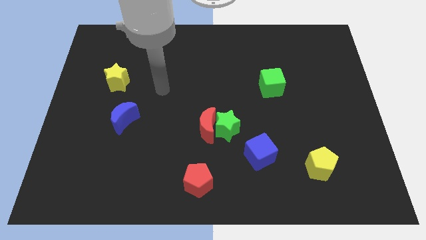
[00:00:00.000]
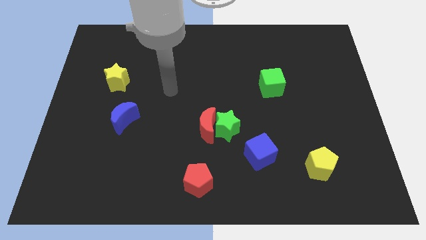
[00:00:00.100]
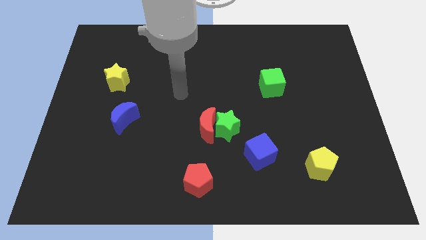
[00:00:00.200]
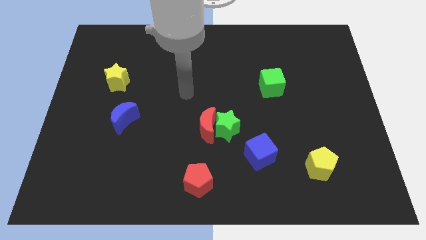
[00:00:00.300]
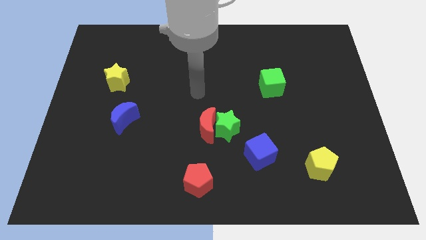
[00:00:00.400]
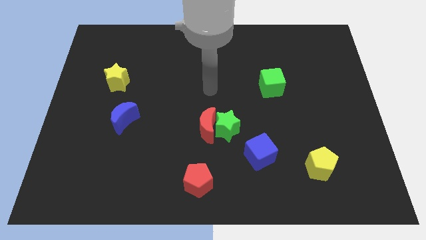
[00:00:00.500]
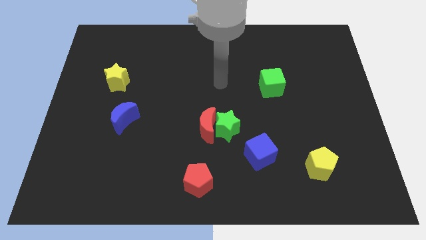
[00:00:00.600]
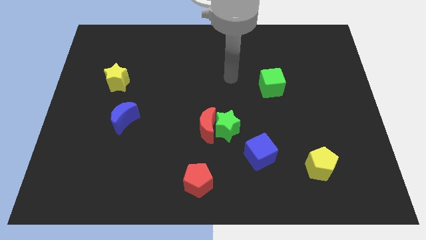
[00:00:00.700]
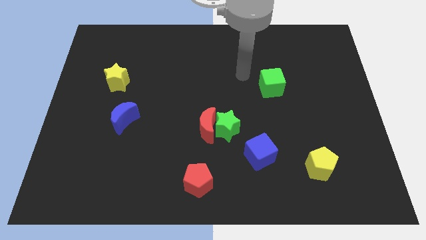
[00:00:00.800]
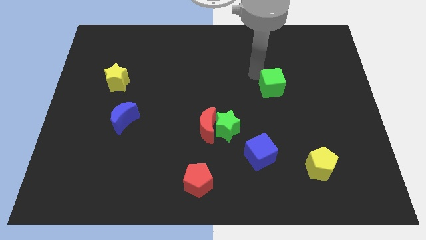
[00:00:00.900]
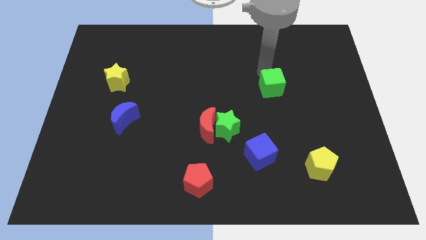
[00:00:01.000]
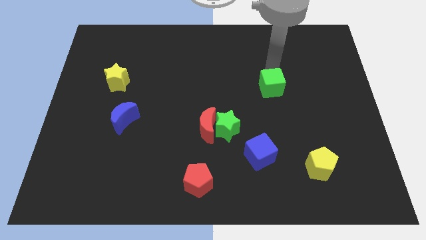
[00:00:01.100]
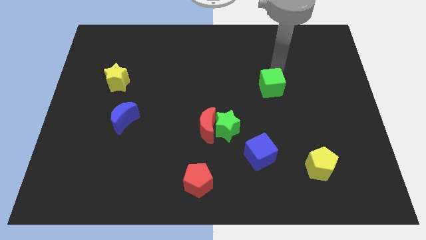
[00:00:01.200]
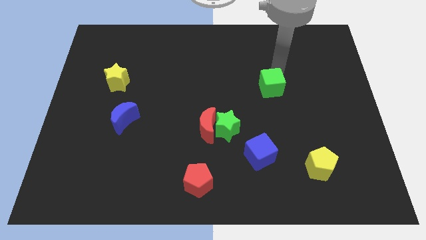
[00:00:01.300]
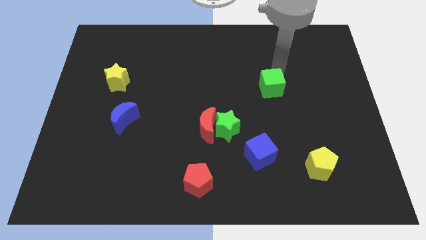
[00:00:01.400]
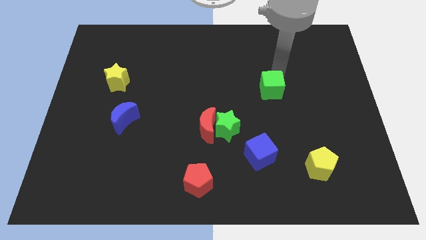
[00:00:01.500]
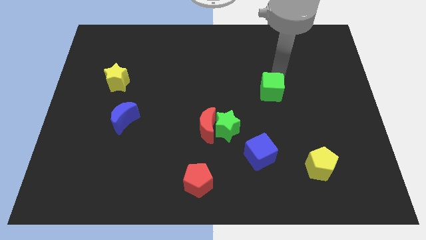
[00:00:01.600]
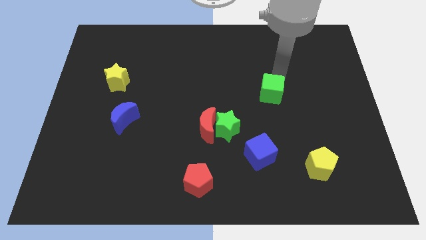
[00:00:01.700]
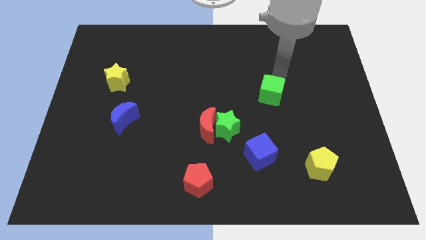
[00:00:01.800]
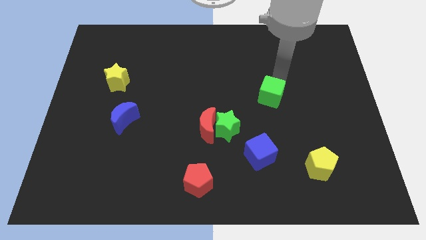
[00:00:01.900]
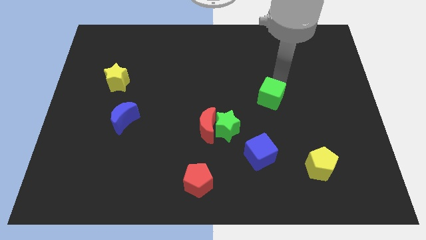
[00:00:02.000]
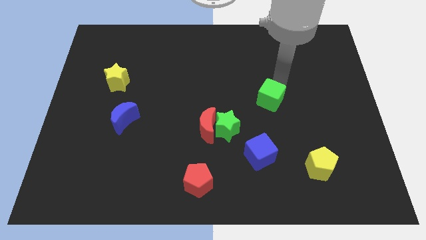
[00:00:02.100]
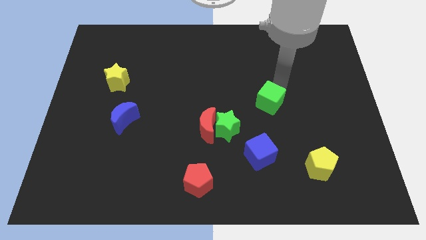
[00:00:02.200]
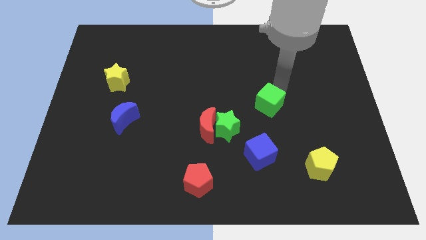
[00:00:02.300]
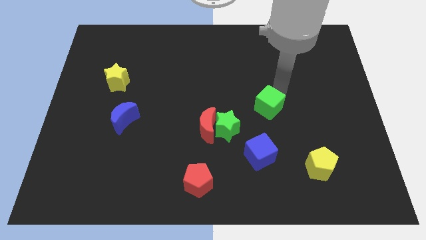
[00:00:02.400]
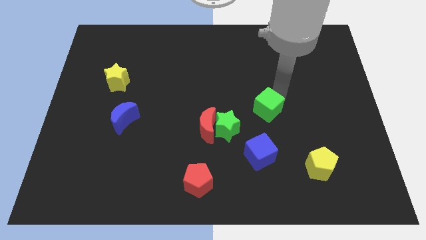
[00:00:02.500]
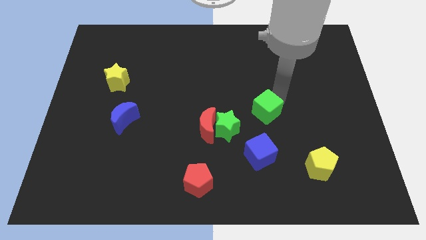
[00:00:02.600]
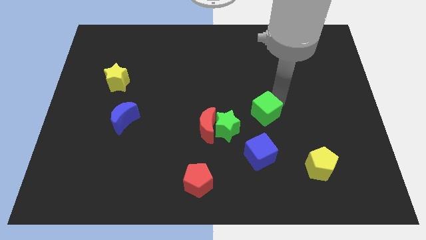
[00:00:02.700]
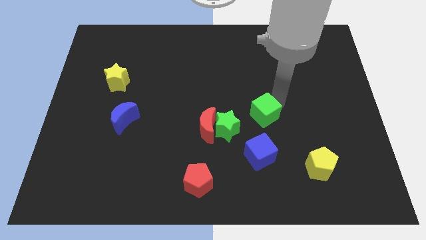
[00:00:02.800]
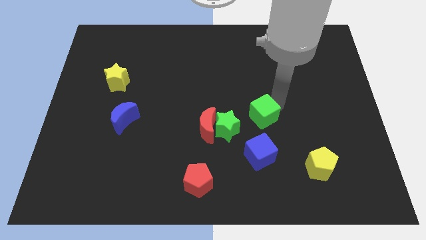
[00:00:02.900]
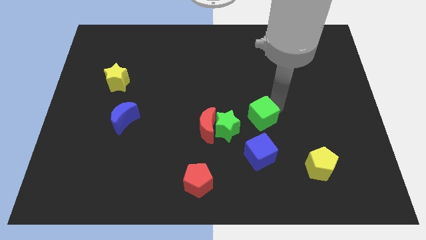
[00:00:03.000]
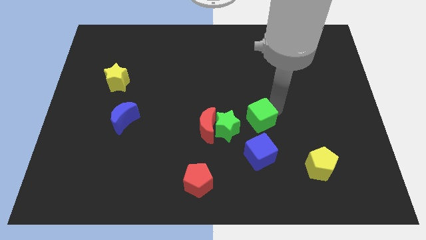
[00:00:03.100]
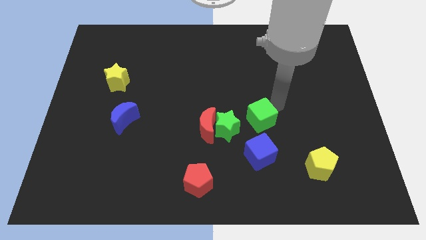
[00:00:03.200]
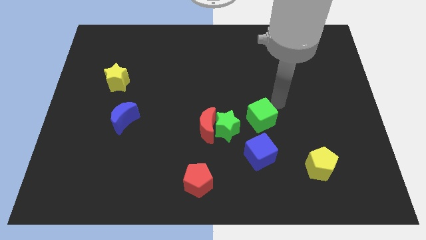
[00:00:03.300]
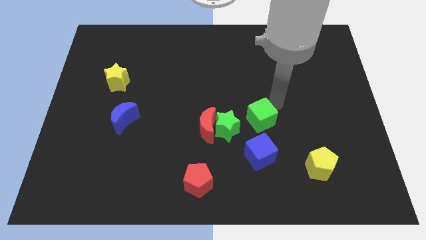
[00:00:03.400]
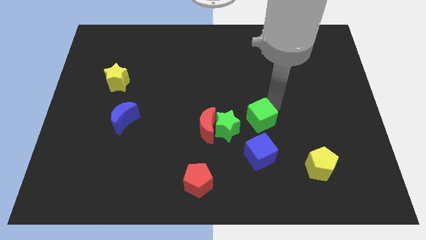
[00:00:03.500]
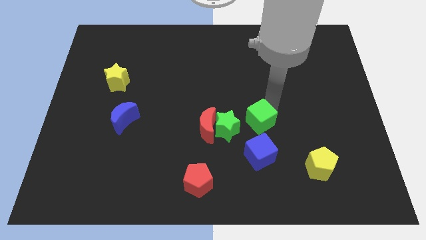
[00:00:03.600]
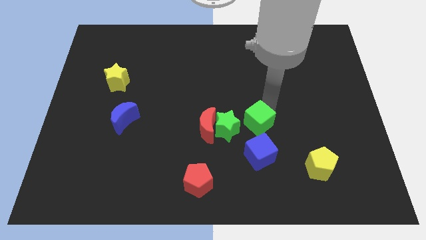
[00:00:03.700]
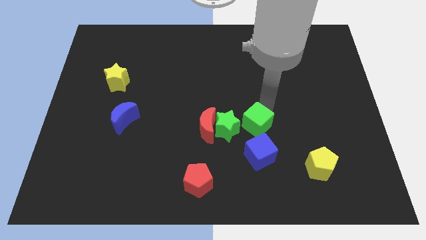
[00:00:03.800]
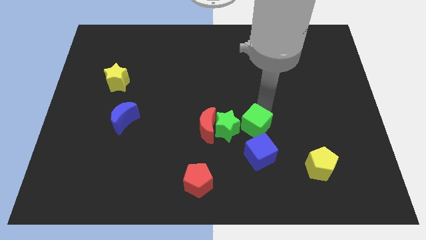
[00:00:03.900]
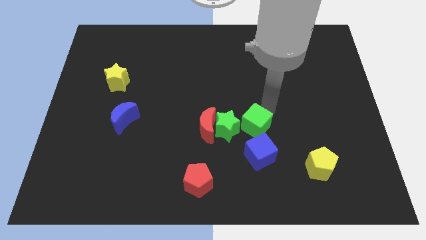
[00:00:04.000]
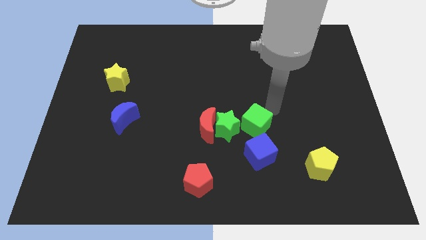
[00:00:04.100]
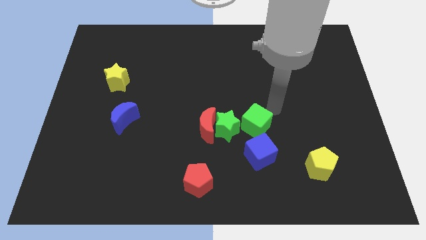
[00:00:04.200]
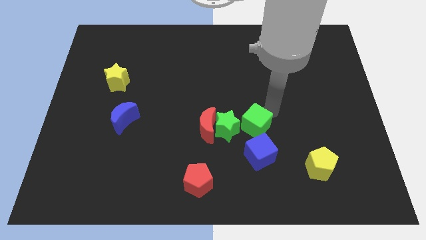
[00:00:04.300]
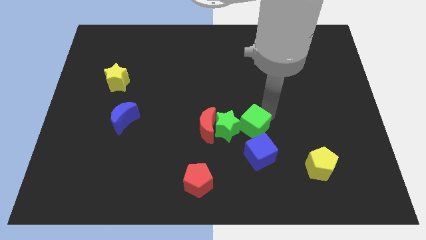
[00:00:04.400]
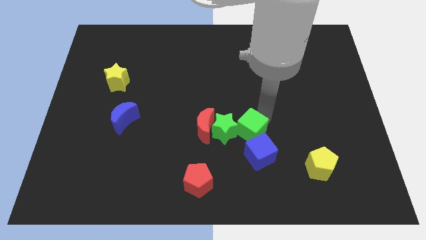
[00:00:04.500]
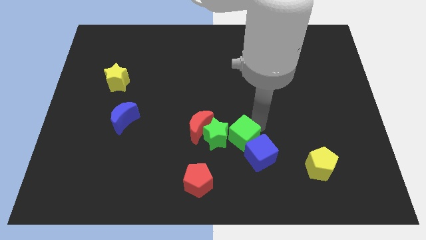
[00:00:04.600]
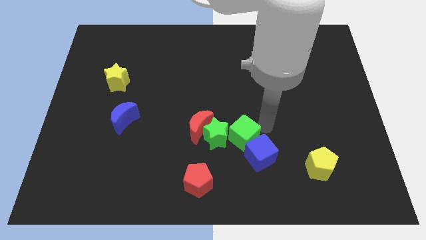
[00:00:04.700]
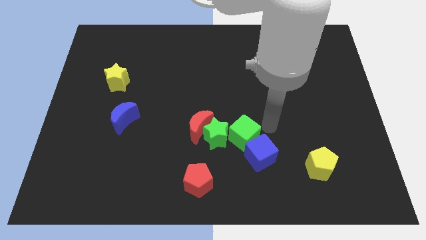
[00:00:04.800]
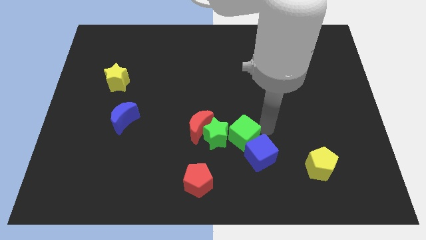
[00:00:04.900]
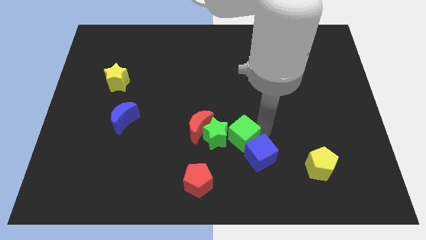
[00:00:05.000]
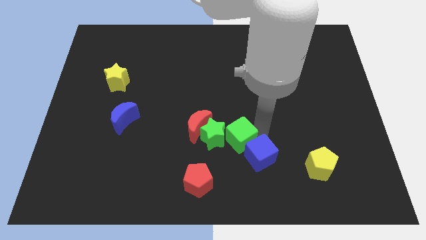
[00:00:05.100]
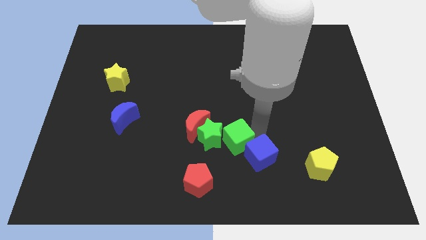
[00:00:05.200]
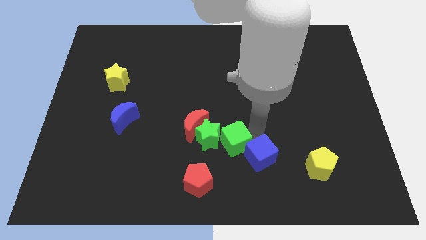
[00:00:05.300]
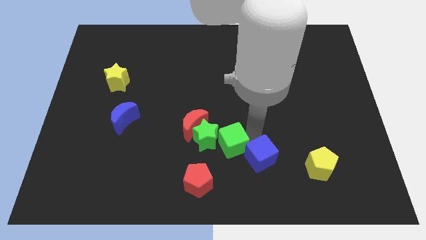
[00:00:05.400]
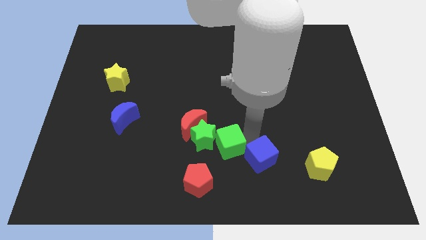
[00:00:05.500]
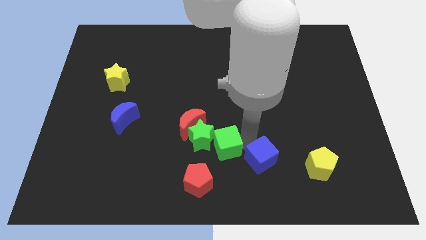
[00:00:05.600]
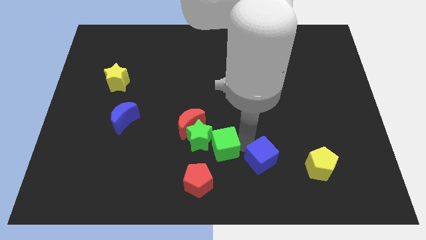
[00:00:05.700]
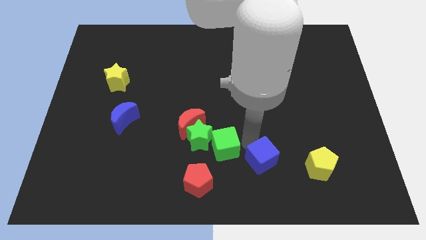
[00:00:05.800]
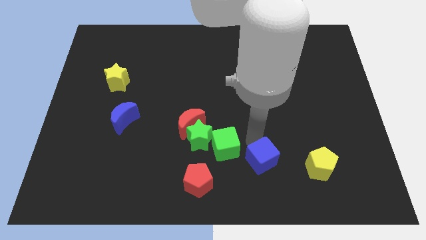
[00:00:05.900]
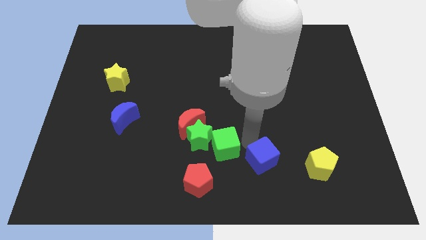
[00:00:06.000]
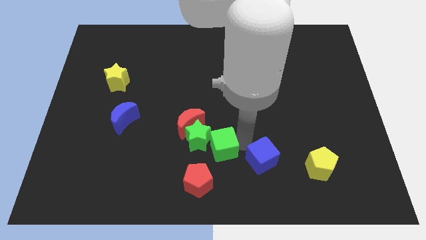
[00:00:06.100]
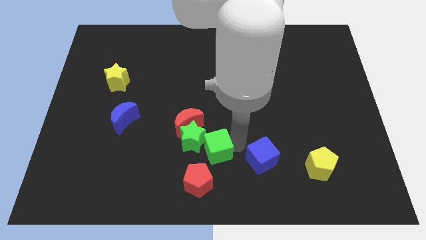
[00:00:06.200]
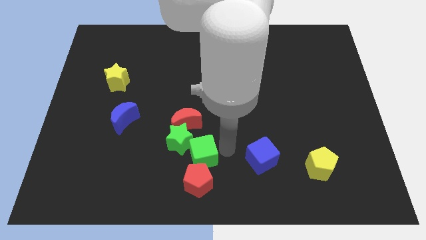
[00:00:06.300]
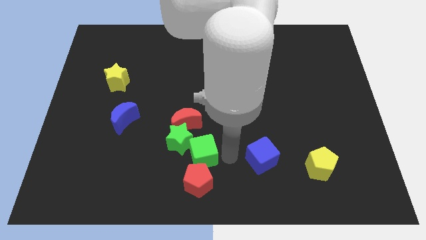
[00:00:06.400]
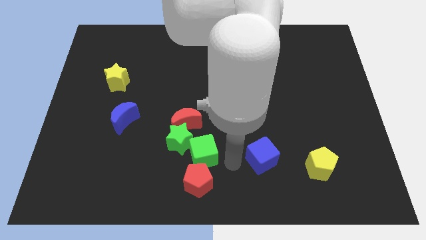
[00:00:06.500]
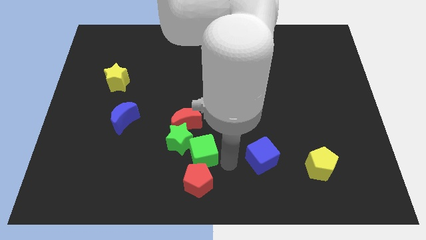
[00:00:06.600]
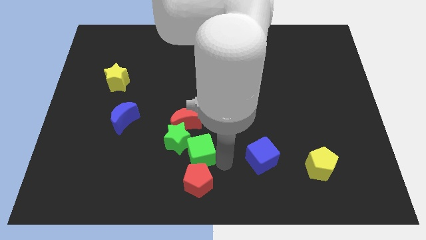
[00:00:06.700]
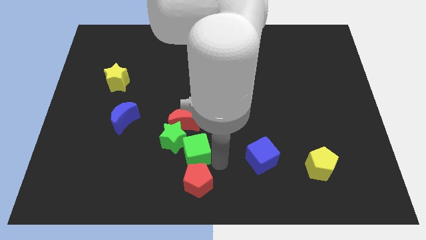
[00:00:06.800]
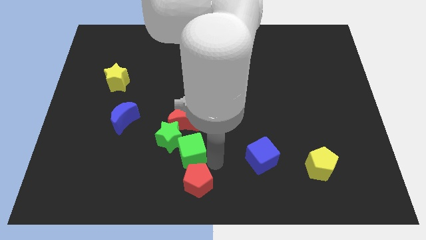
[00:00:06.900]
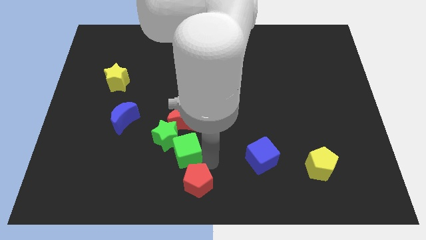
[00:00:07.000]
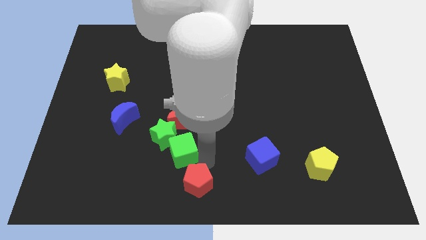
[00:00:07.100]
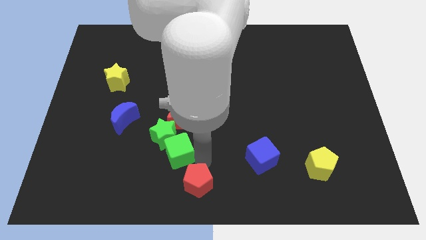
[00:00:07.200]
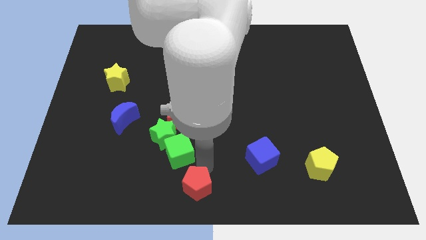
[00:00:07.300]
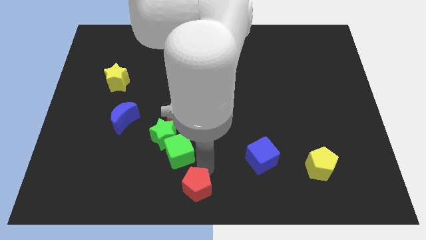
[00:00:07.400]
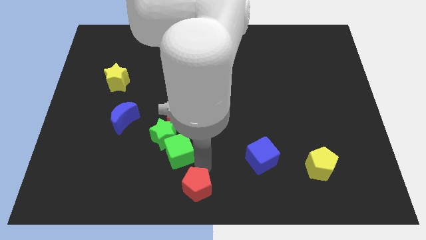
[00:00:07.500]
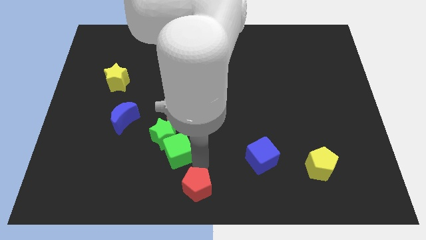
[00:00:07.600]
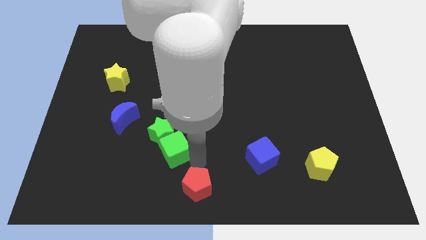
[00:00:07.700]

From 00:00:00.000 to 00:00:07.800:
slide the green cube diagonally down and to the left of the red moon

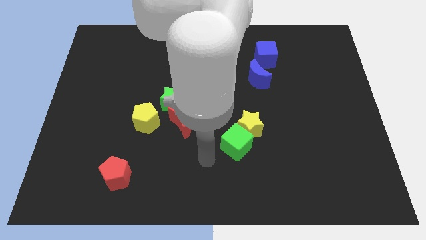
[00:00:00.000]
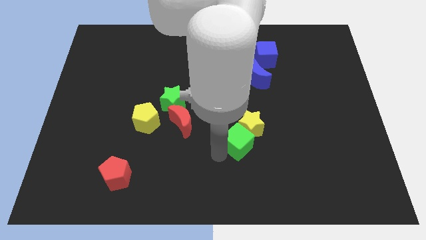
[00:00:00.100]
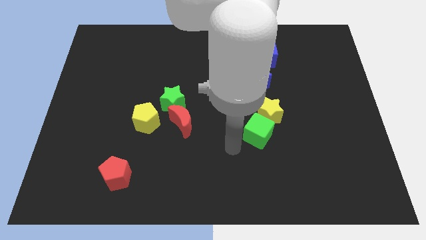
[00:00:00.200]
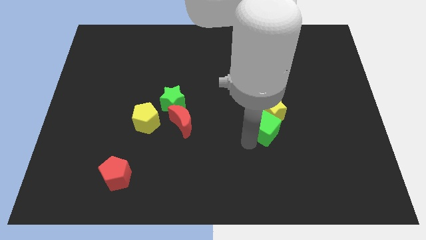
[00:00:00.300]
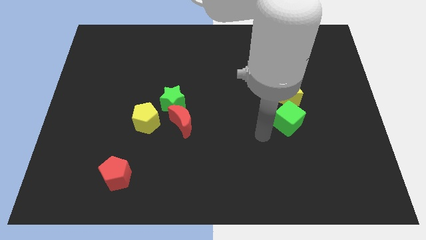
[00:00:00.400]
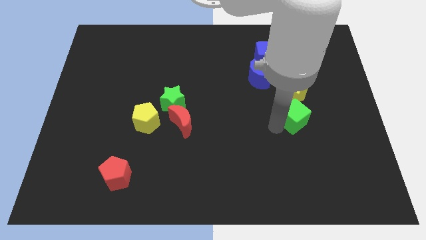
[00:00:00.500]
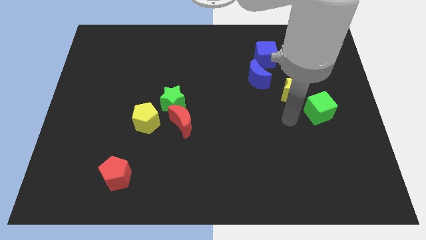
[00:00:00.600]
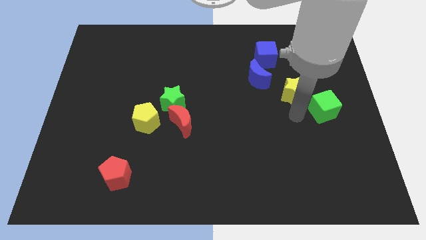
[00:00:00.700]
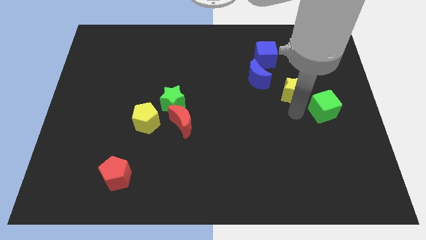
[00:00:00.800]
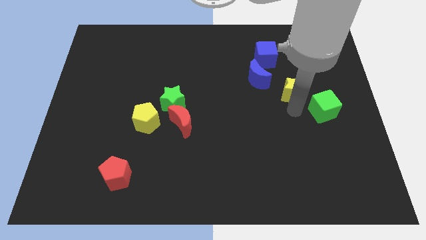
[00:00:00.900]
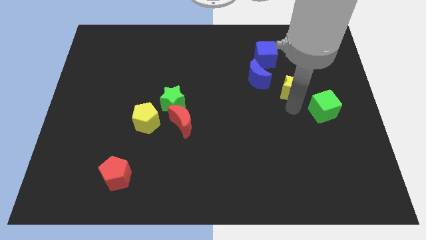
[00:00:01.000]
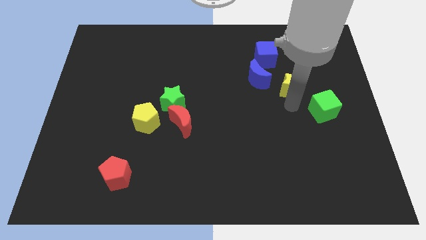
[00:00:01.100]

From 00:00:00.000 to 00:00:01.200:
push the yellow star to the bottom right of the blue cube
